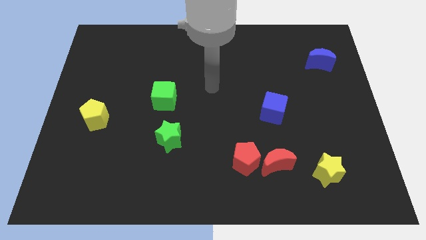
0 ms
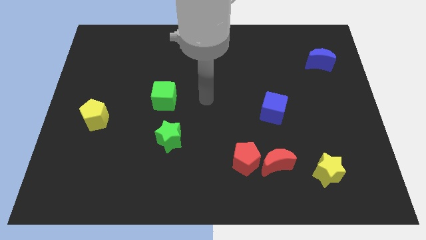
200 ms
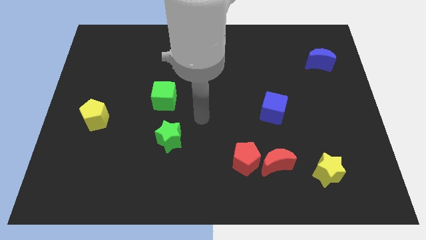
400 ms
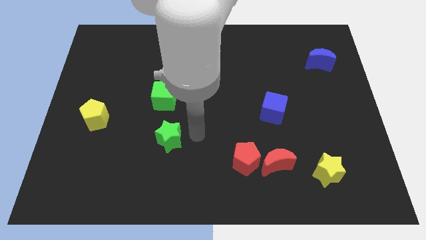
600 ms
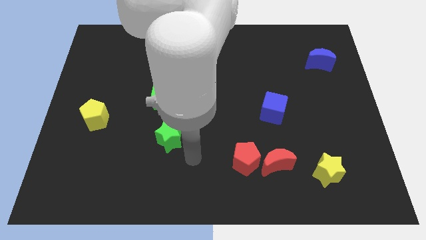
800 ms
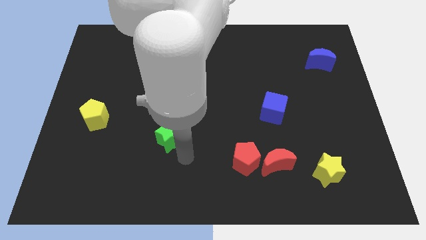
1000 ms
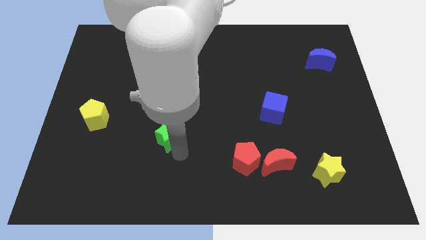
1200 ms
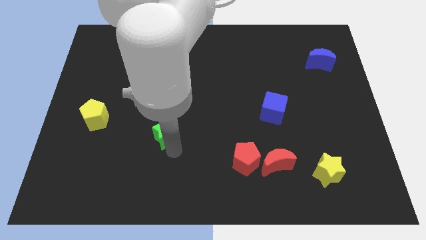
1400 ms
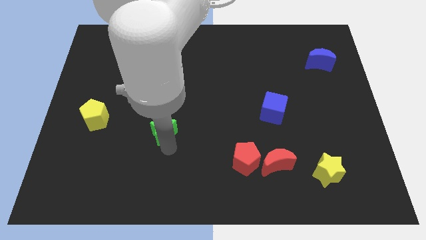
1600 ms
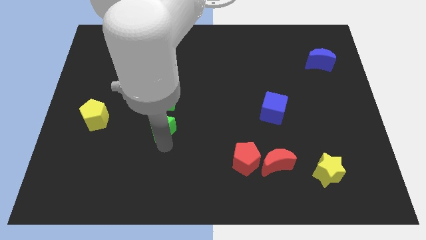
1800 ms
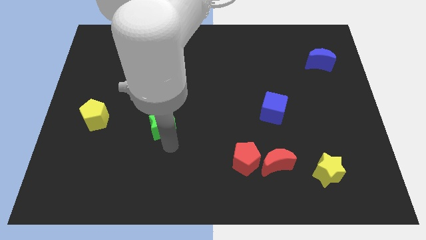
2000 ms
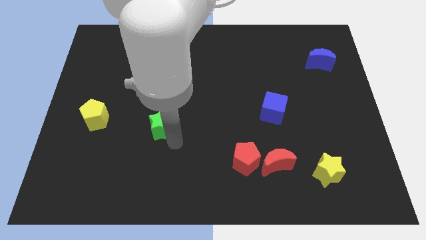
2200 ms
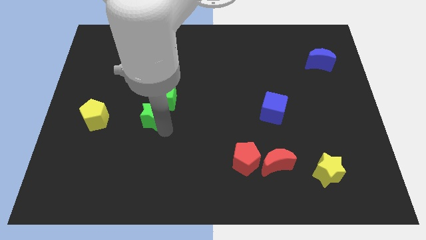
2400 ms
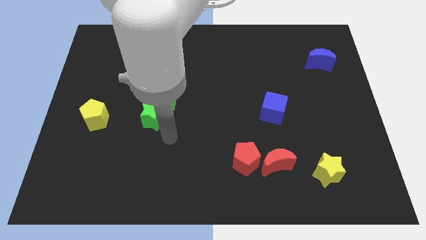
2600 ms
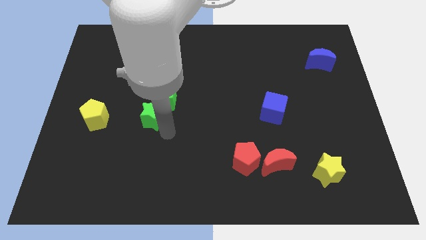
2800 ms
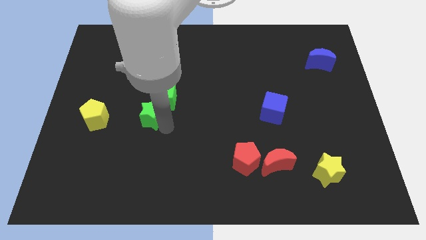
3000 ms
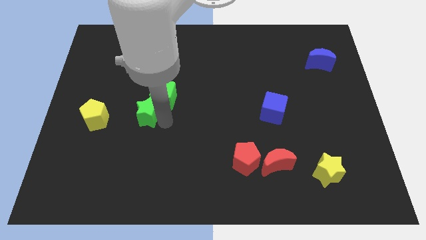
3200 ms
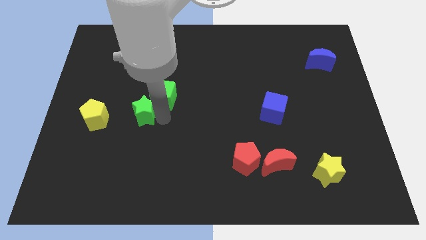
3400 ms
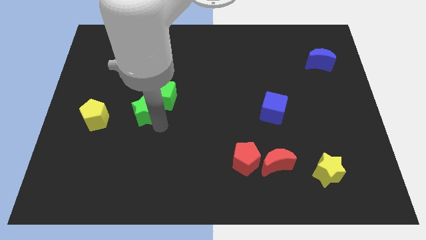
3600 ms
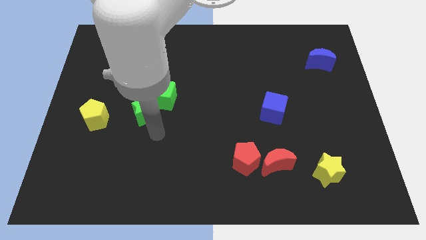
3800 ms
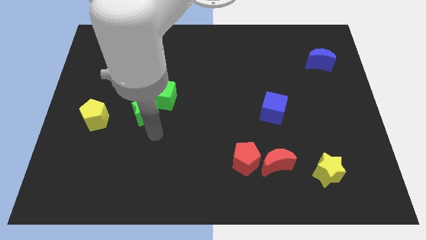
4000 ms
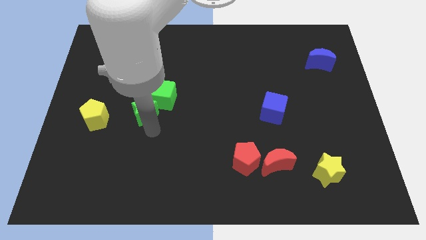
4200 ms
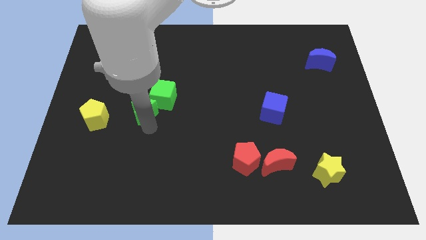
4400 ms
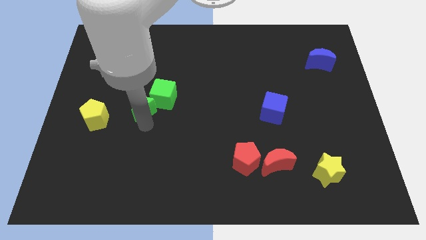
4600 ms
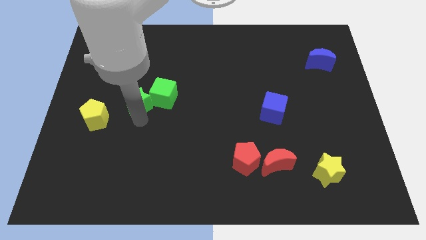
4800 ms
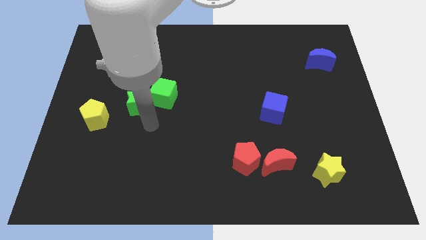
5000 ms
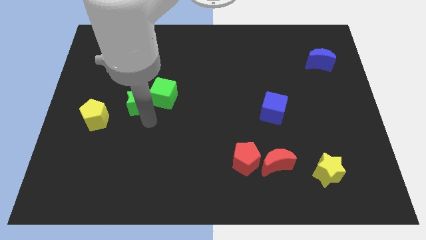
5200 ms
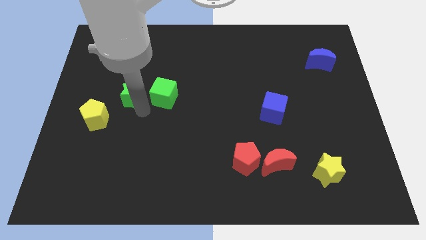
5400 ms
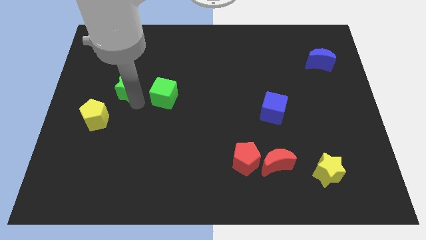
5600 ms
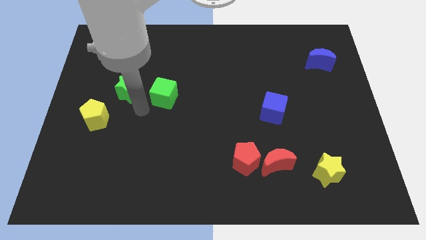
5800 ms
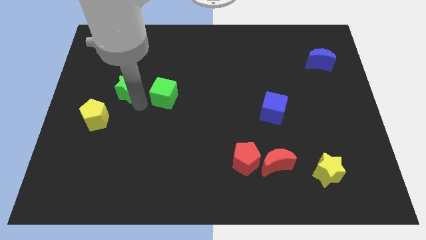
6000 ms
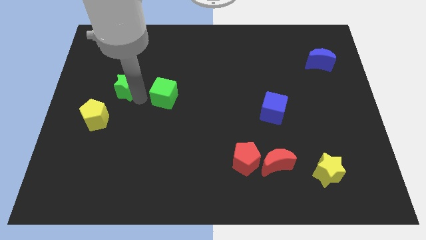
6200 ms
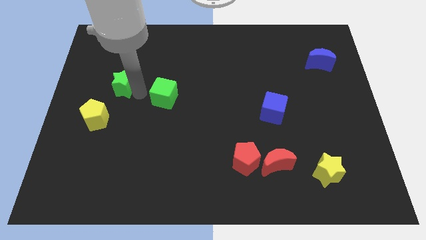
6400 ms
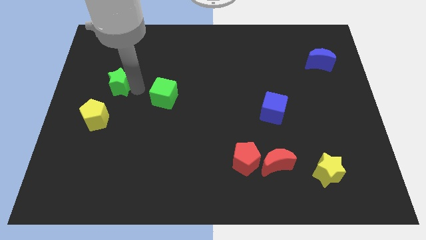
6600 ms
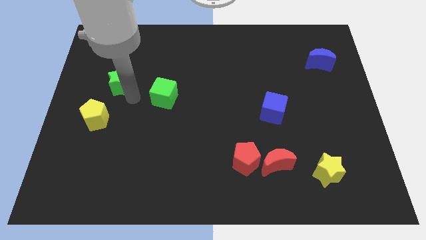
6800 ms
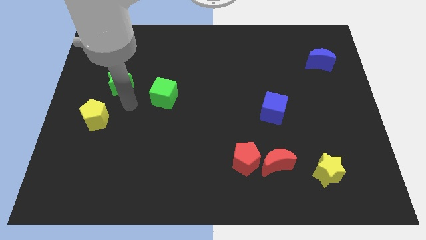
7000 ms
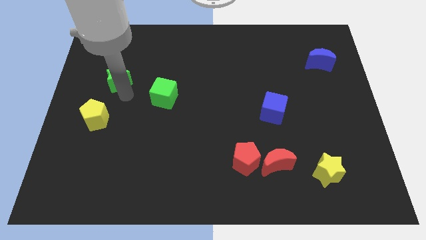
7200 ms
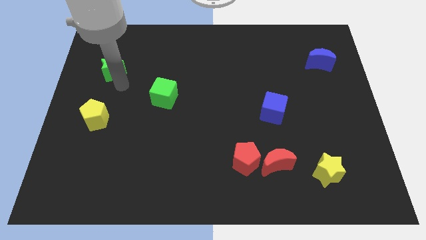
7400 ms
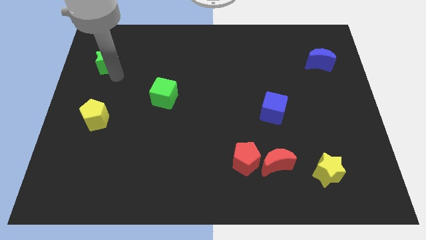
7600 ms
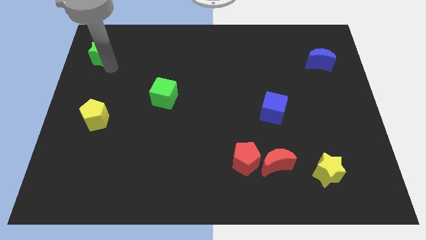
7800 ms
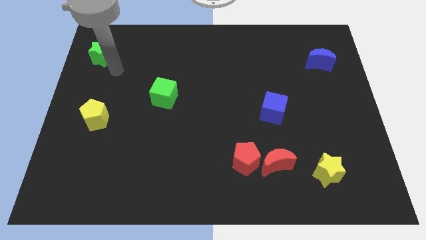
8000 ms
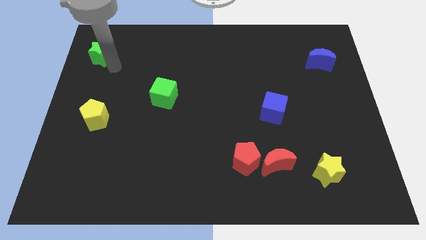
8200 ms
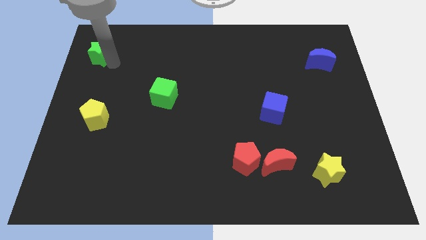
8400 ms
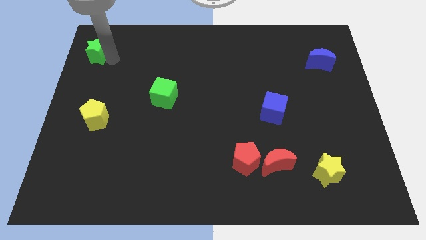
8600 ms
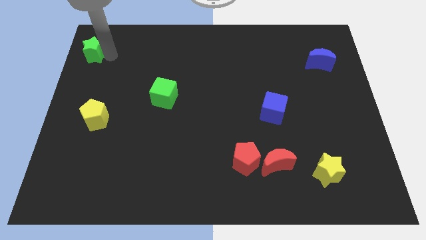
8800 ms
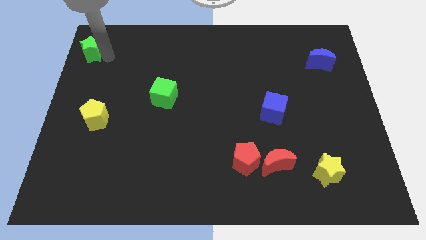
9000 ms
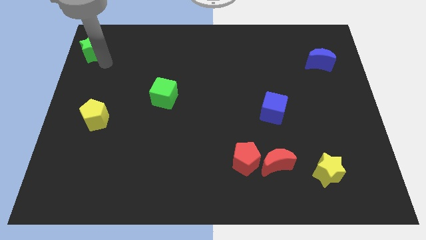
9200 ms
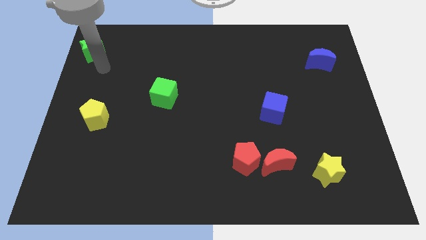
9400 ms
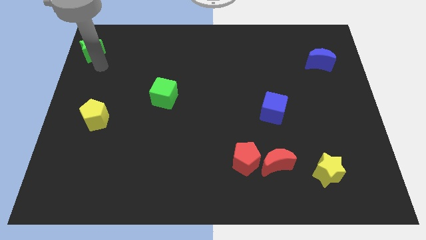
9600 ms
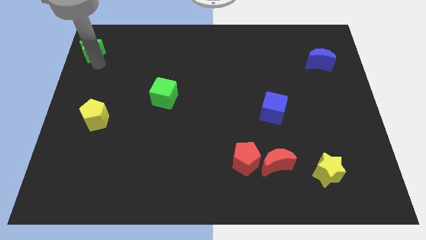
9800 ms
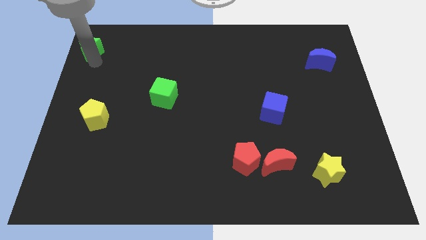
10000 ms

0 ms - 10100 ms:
slide the green star to the top left corner

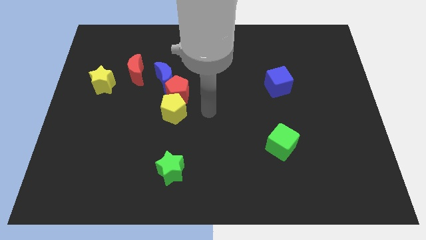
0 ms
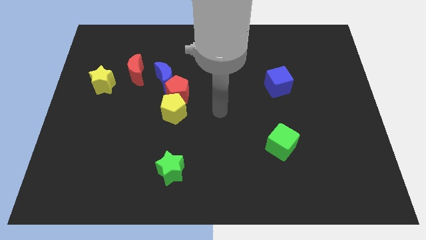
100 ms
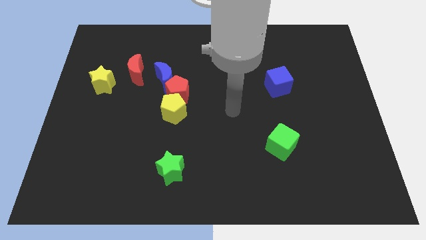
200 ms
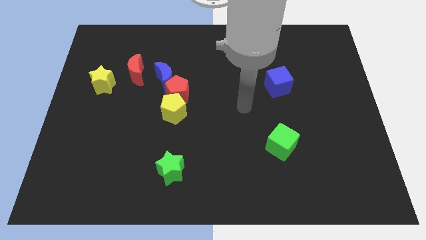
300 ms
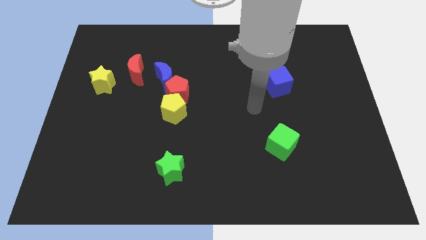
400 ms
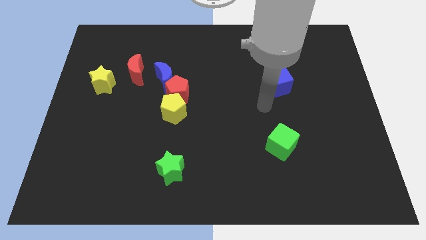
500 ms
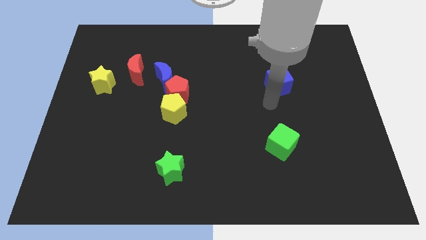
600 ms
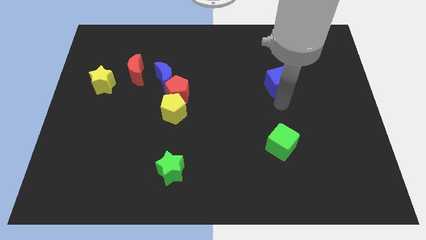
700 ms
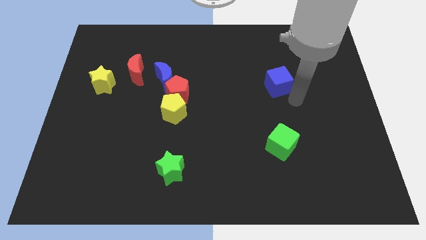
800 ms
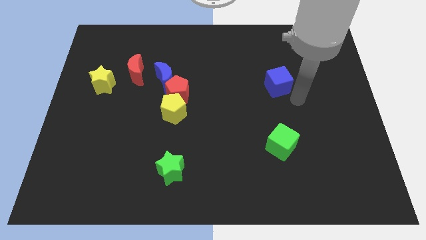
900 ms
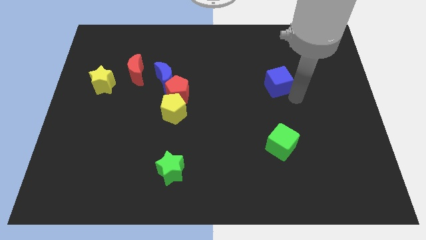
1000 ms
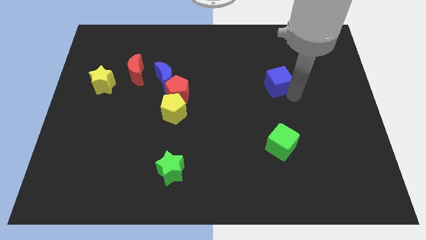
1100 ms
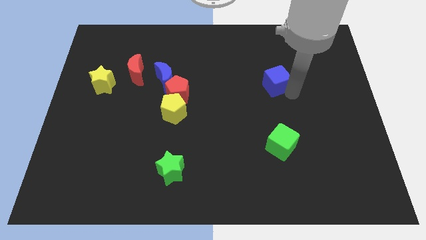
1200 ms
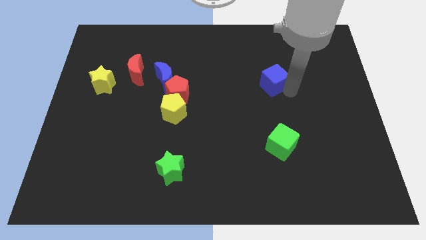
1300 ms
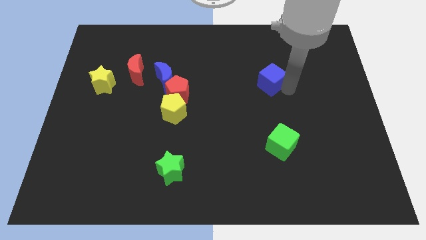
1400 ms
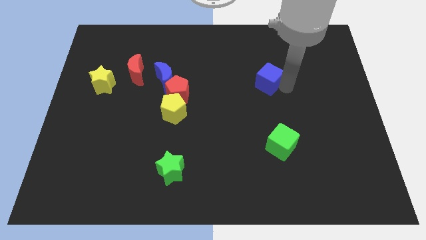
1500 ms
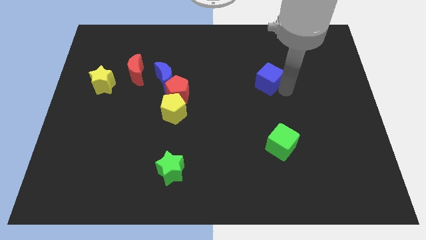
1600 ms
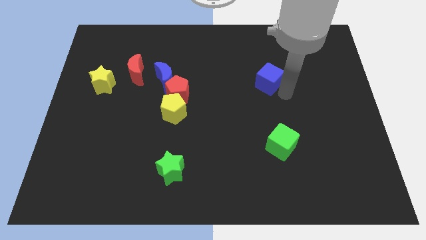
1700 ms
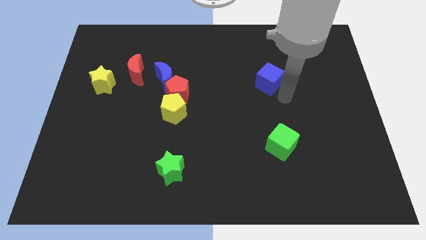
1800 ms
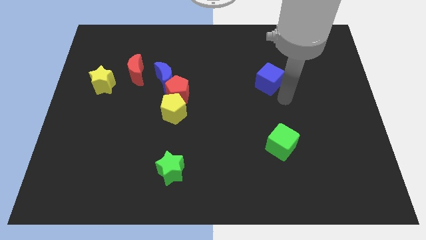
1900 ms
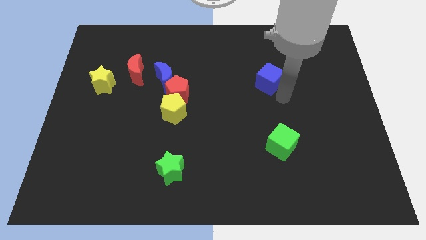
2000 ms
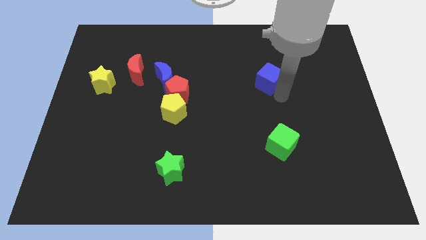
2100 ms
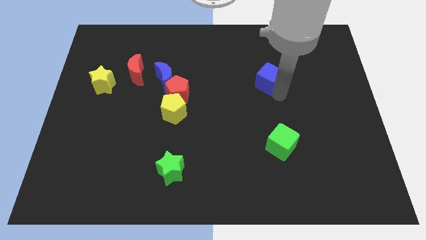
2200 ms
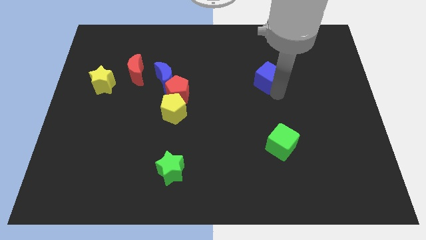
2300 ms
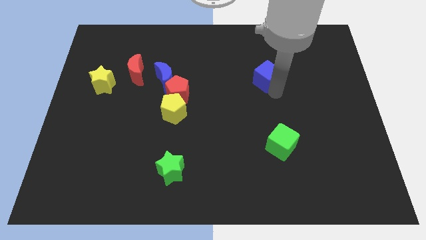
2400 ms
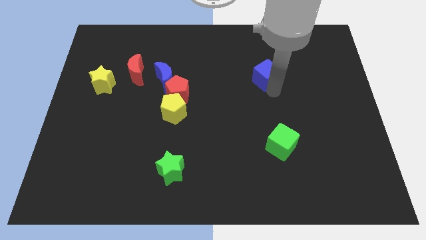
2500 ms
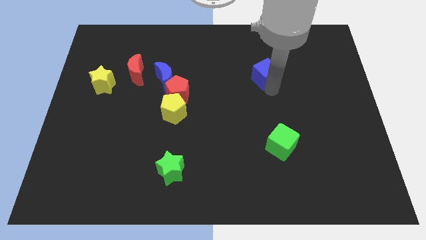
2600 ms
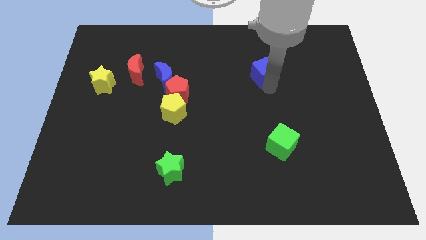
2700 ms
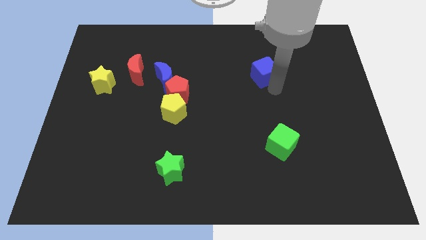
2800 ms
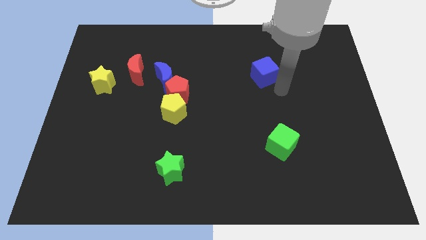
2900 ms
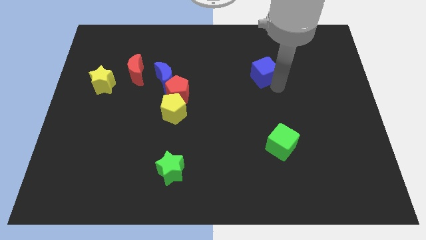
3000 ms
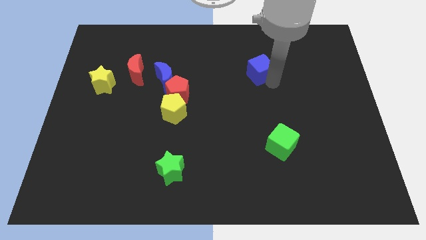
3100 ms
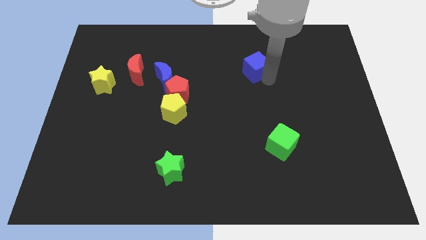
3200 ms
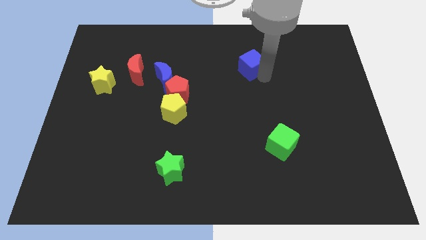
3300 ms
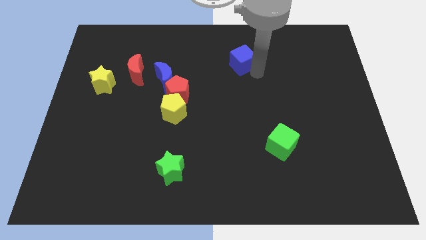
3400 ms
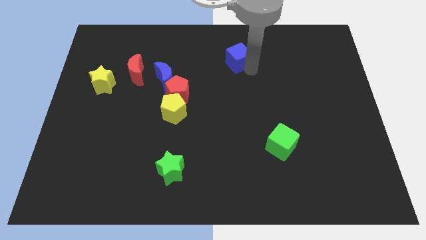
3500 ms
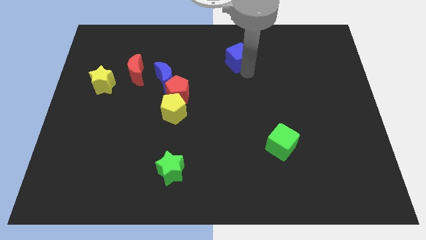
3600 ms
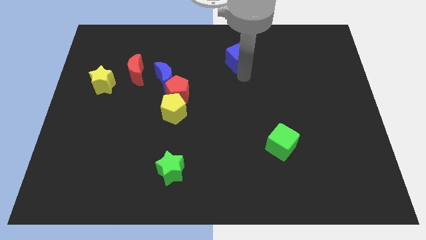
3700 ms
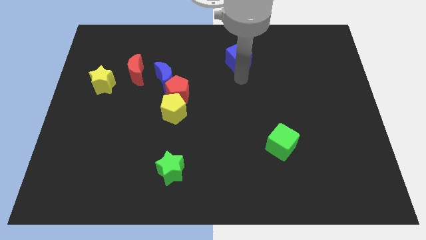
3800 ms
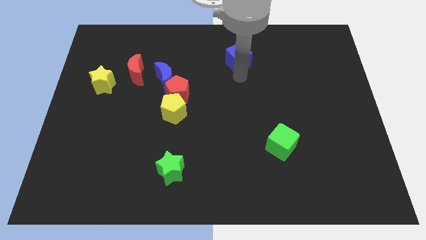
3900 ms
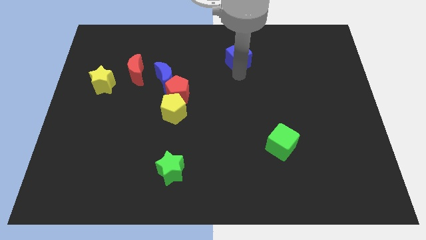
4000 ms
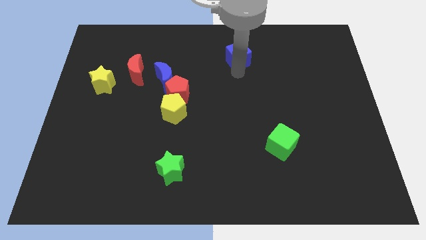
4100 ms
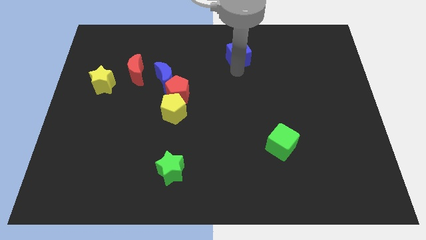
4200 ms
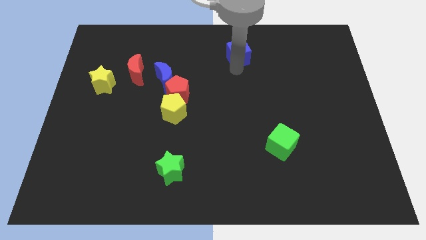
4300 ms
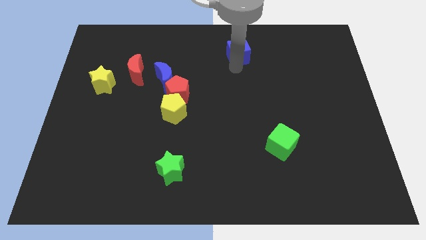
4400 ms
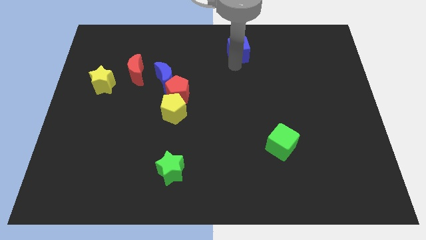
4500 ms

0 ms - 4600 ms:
move the blue cube to the top side
